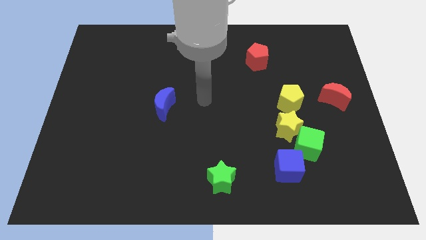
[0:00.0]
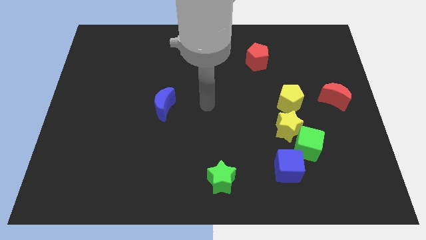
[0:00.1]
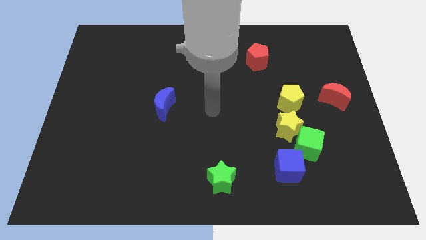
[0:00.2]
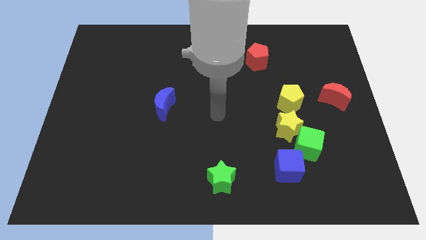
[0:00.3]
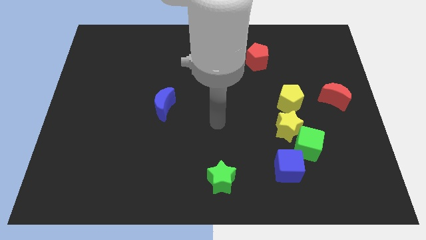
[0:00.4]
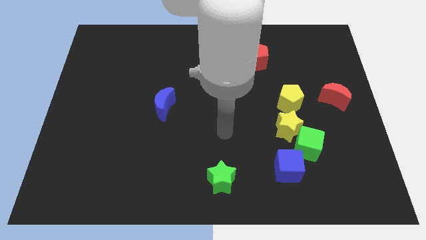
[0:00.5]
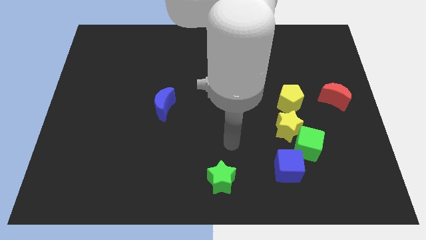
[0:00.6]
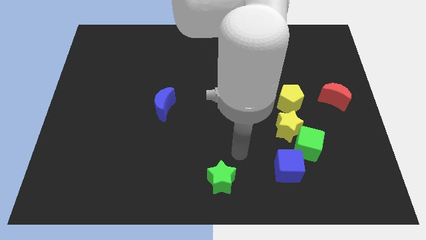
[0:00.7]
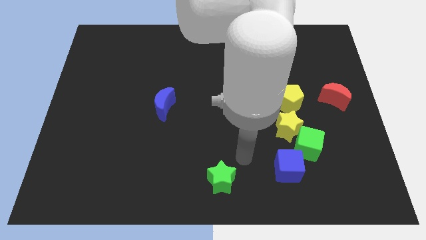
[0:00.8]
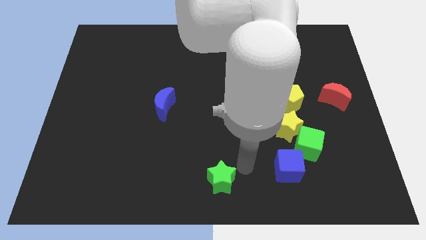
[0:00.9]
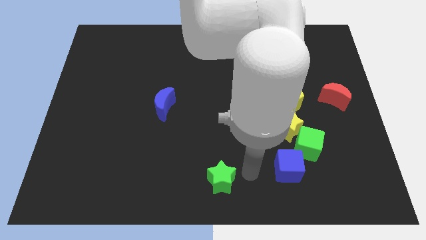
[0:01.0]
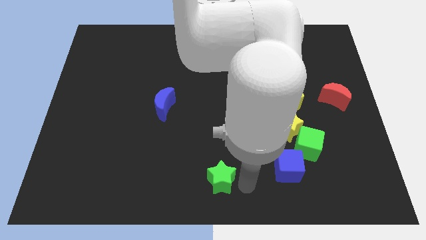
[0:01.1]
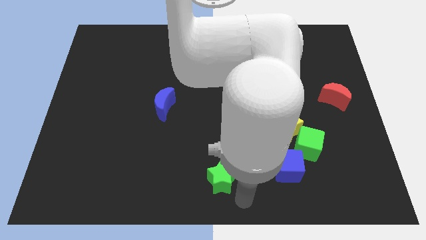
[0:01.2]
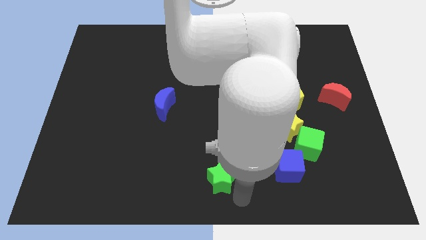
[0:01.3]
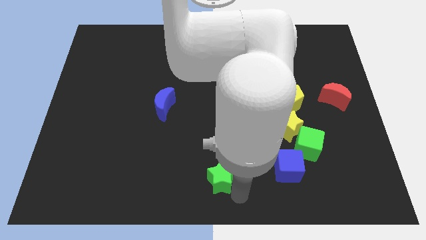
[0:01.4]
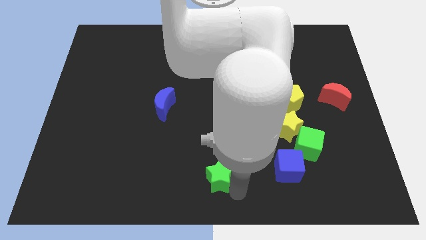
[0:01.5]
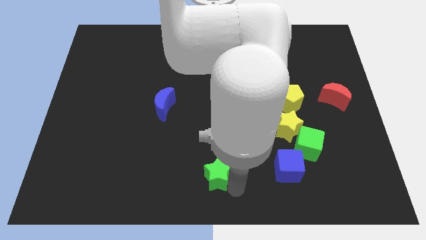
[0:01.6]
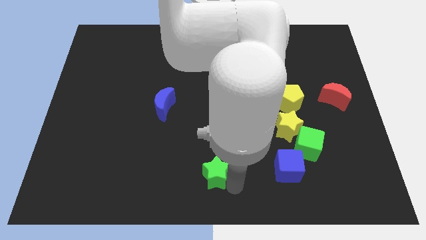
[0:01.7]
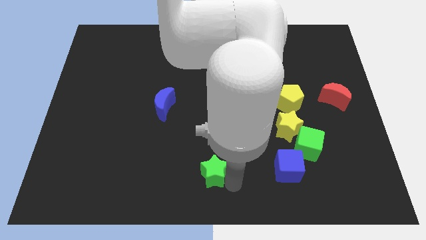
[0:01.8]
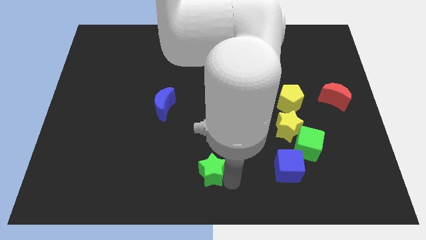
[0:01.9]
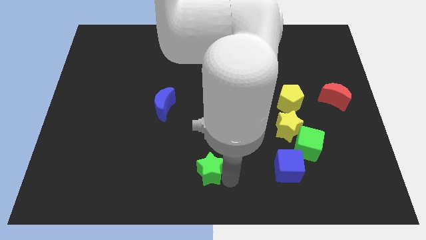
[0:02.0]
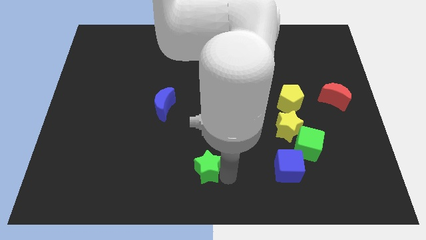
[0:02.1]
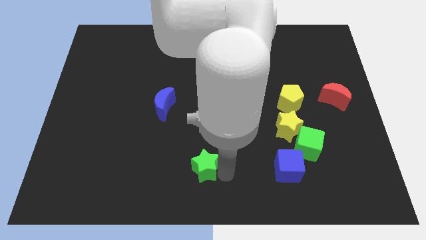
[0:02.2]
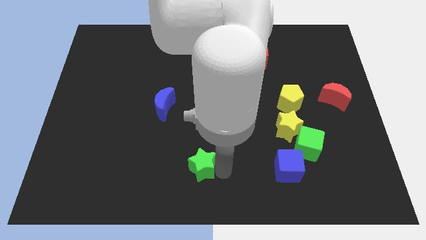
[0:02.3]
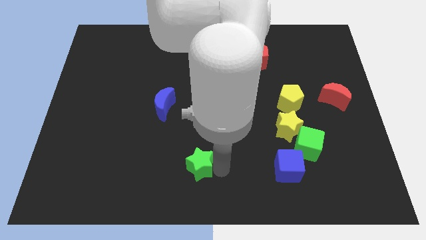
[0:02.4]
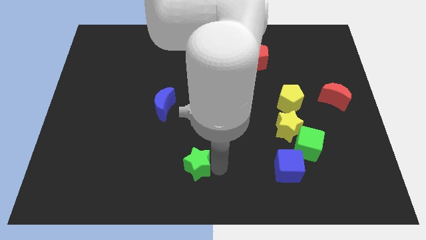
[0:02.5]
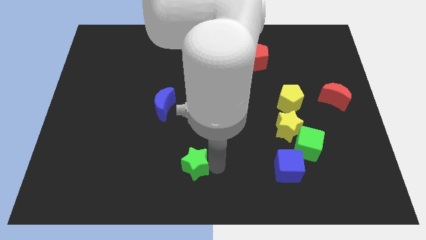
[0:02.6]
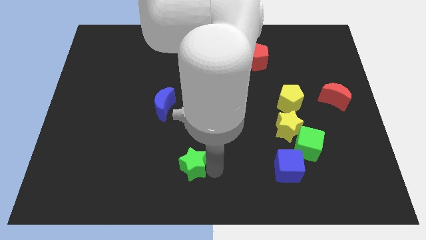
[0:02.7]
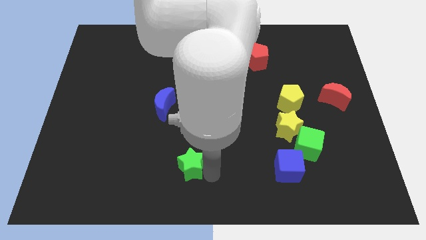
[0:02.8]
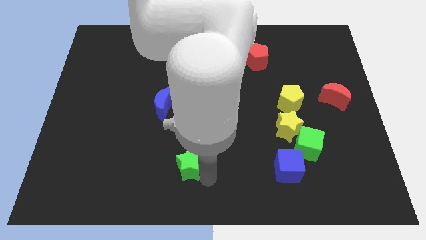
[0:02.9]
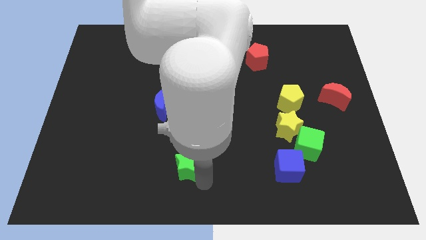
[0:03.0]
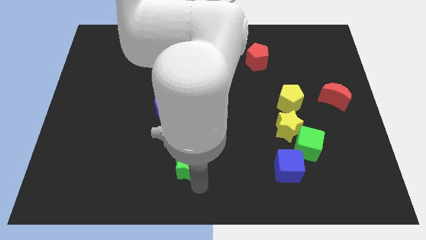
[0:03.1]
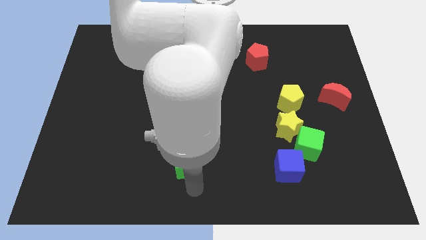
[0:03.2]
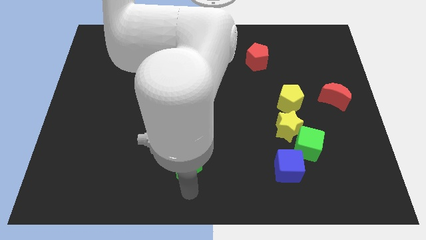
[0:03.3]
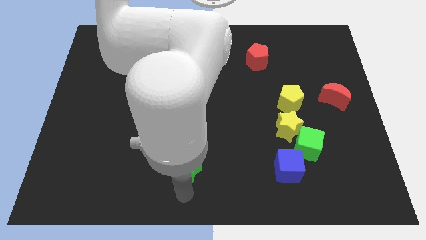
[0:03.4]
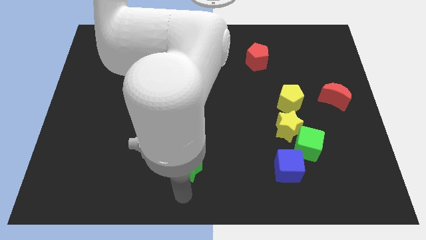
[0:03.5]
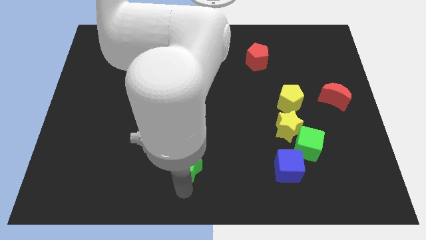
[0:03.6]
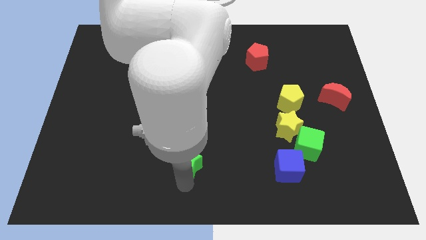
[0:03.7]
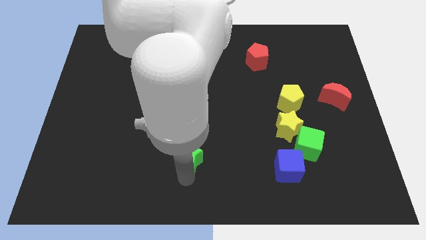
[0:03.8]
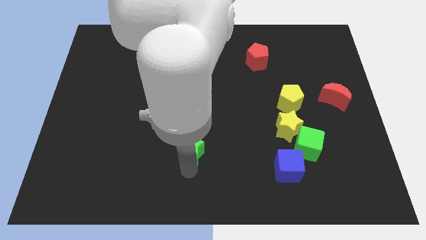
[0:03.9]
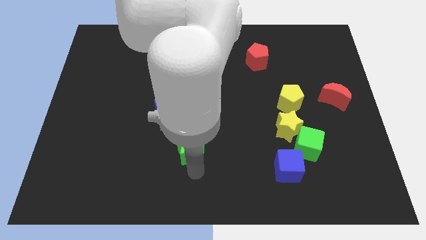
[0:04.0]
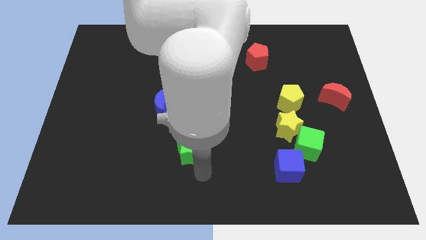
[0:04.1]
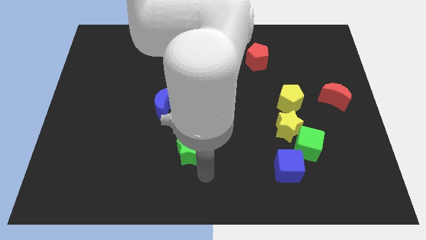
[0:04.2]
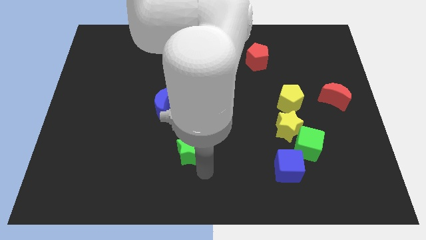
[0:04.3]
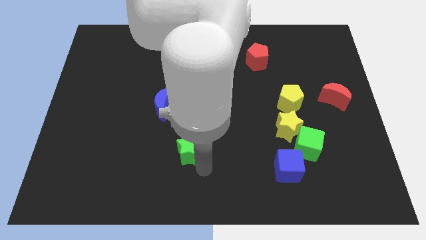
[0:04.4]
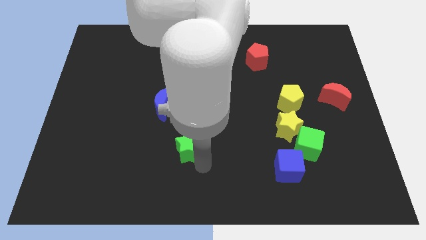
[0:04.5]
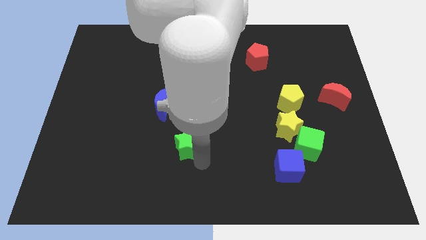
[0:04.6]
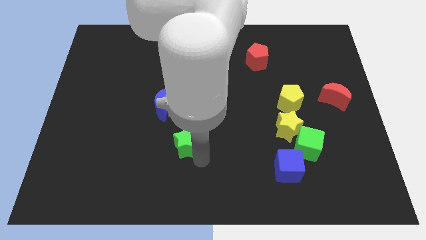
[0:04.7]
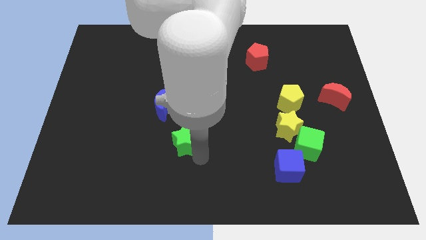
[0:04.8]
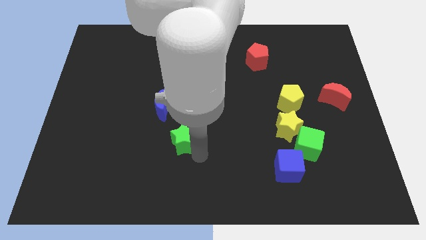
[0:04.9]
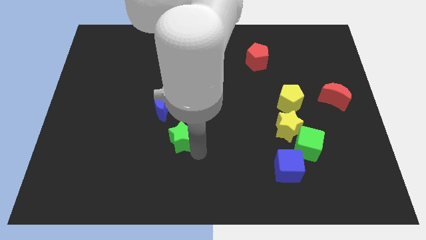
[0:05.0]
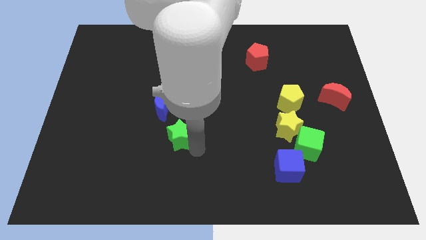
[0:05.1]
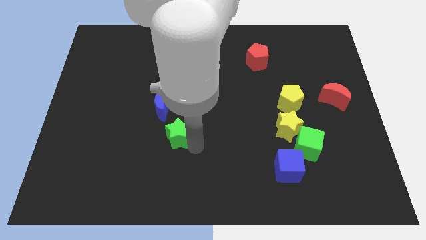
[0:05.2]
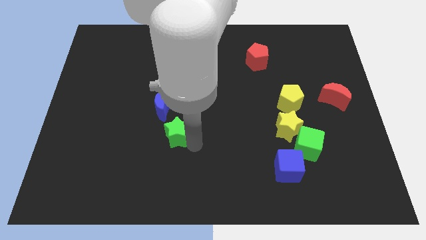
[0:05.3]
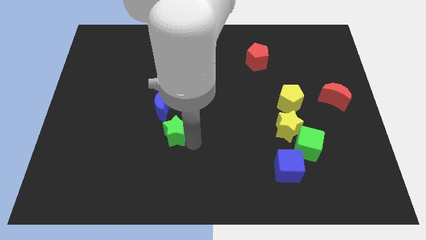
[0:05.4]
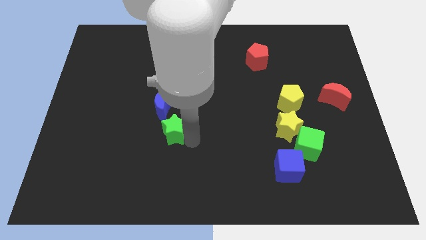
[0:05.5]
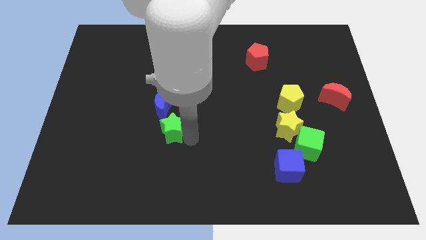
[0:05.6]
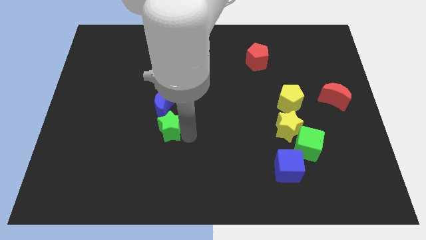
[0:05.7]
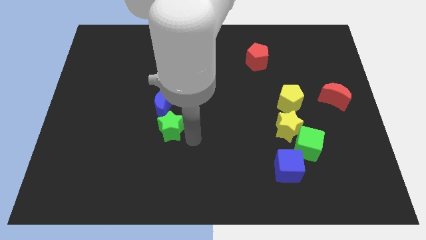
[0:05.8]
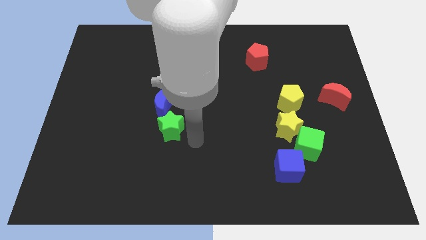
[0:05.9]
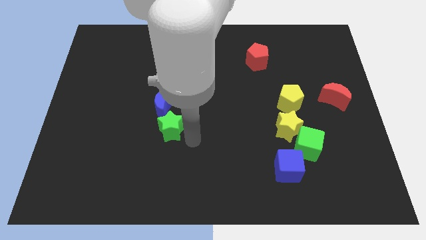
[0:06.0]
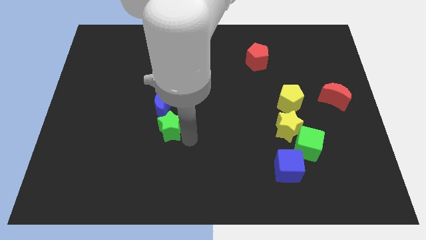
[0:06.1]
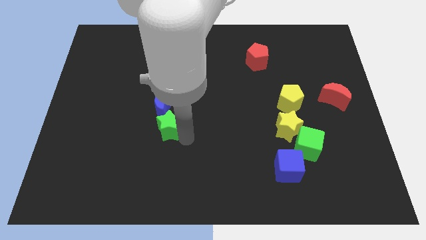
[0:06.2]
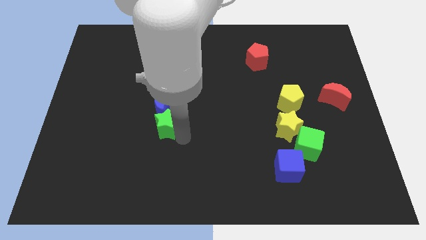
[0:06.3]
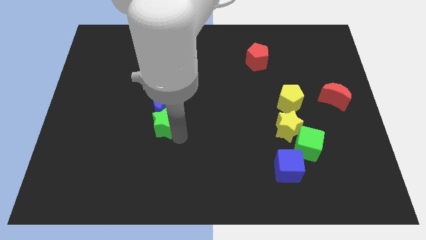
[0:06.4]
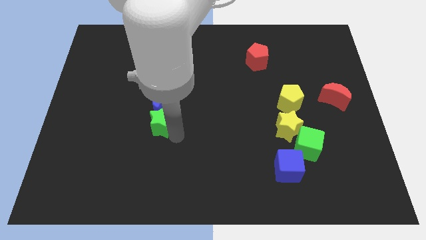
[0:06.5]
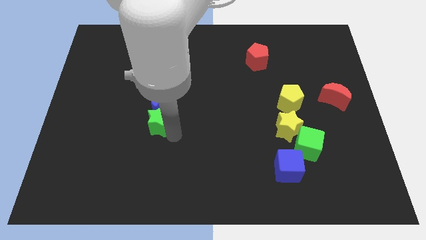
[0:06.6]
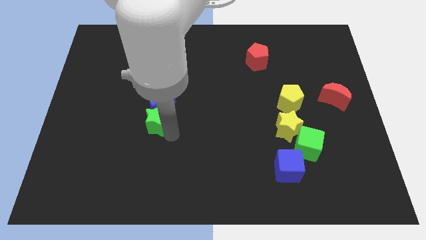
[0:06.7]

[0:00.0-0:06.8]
move the green star upwards and to the left diagonally

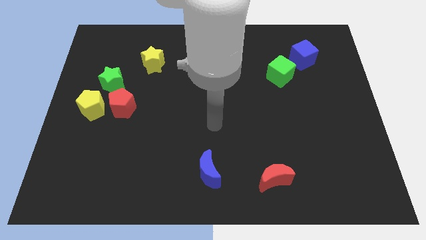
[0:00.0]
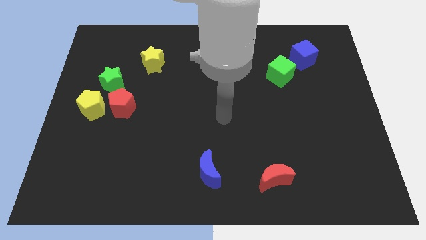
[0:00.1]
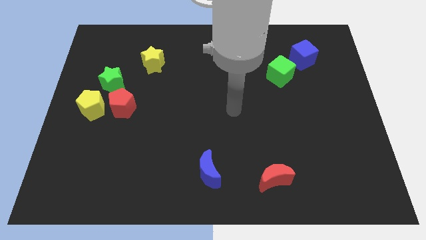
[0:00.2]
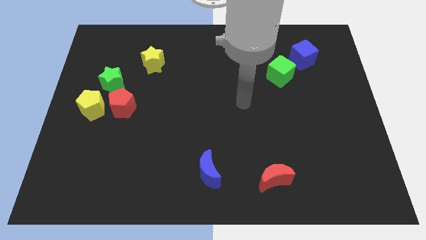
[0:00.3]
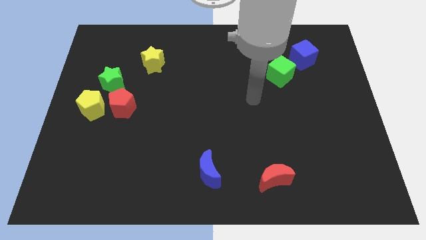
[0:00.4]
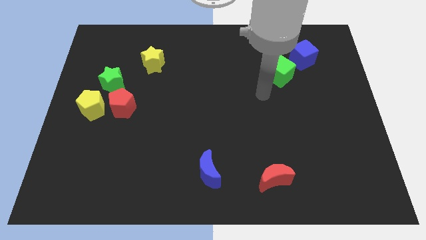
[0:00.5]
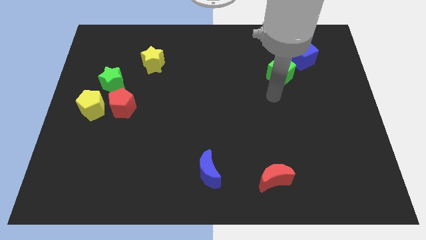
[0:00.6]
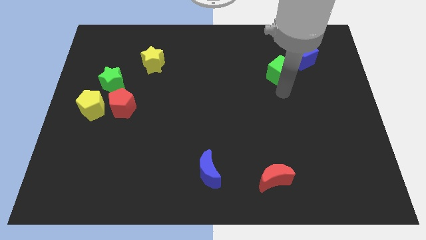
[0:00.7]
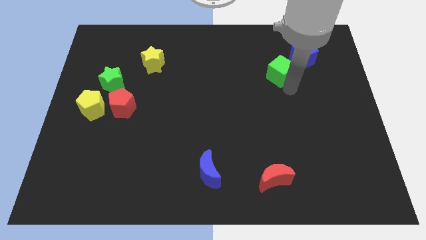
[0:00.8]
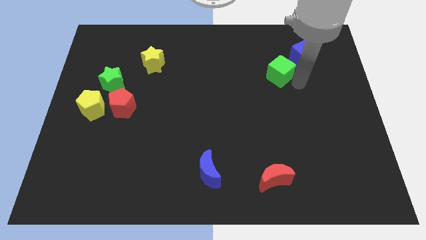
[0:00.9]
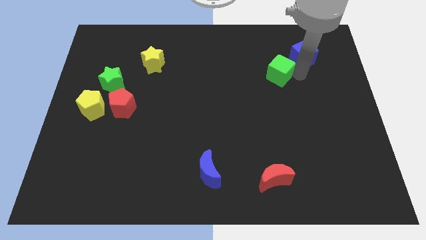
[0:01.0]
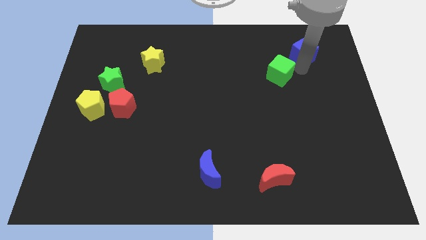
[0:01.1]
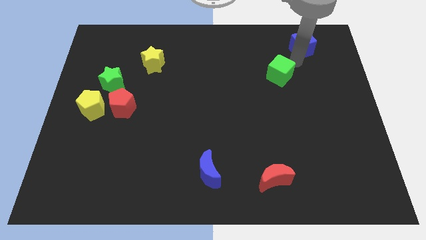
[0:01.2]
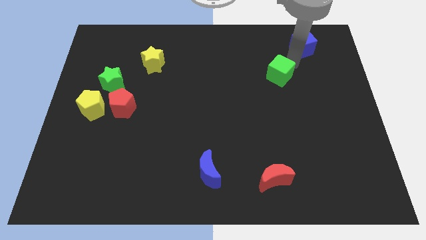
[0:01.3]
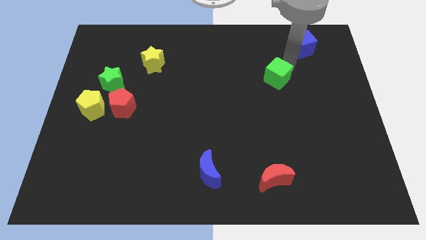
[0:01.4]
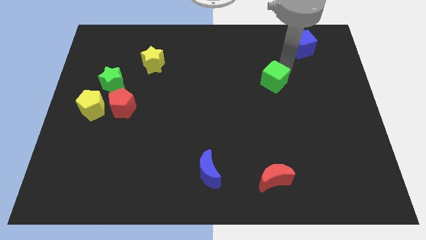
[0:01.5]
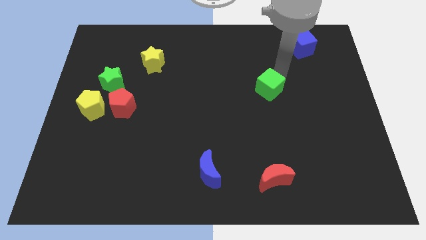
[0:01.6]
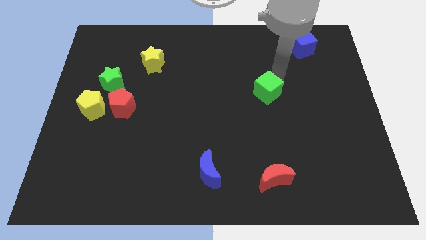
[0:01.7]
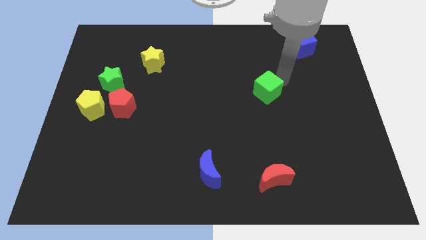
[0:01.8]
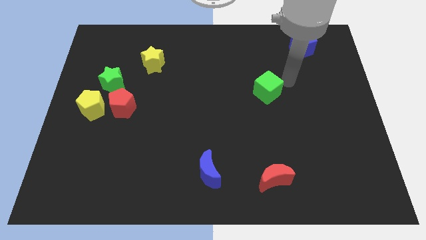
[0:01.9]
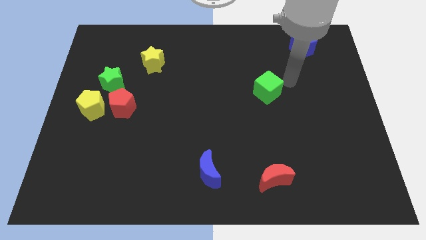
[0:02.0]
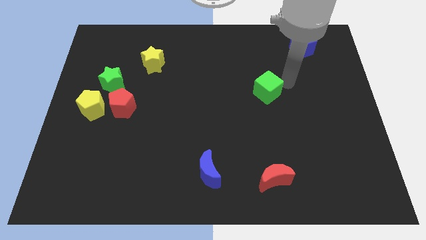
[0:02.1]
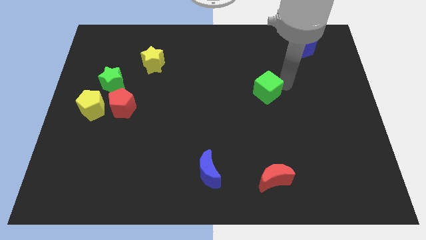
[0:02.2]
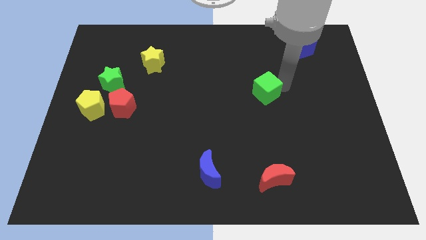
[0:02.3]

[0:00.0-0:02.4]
move the green cube a bit down and then to the left
